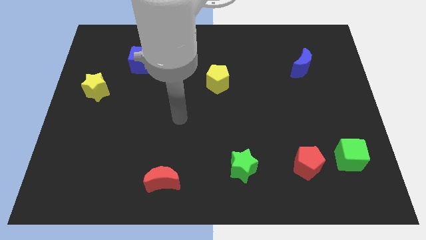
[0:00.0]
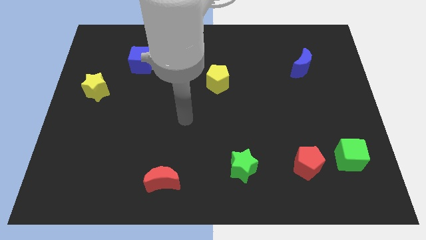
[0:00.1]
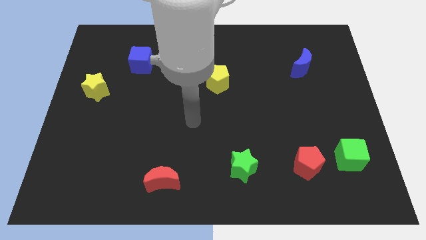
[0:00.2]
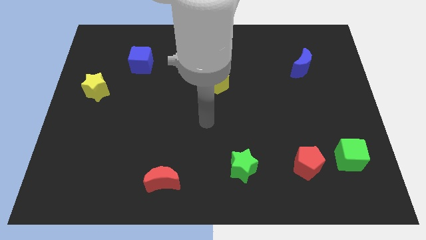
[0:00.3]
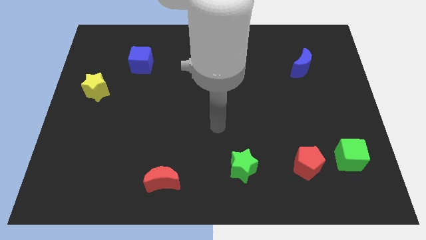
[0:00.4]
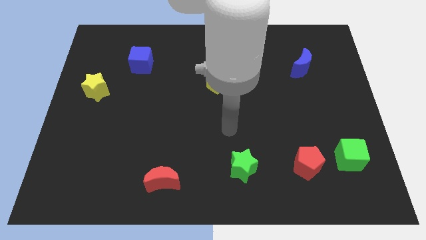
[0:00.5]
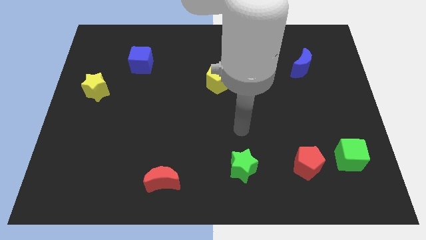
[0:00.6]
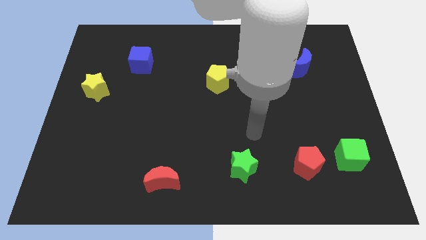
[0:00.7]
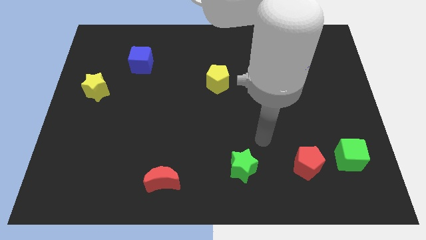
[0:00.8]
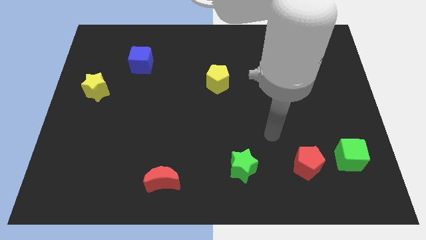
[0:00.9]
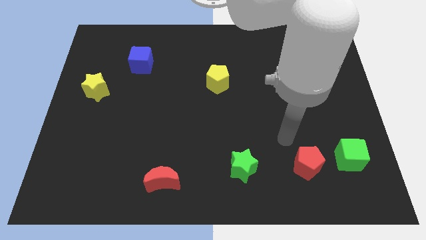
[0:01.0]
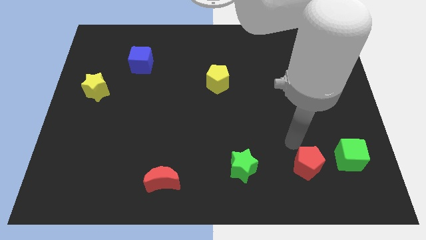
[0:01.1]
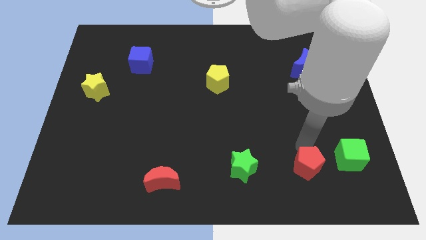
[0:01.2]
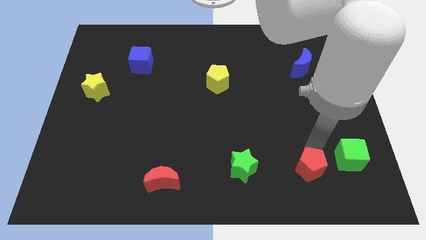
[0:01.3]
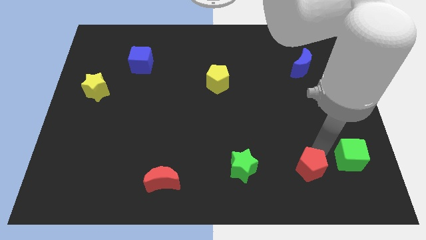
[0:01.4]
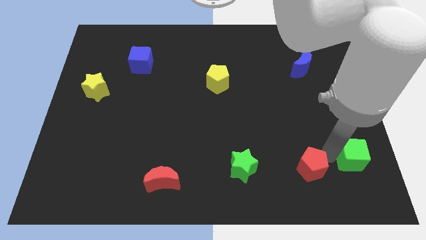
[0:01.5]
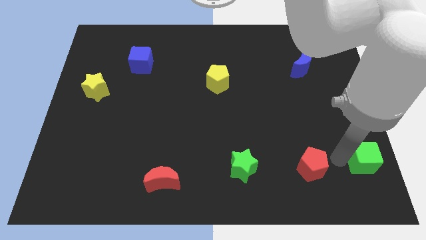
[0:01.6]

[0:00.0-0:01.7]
move the red pentagon away from the green cube

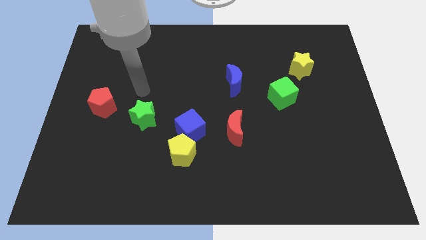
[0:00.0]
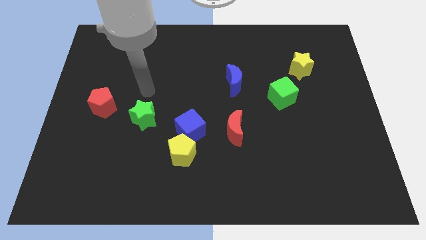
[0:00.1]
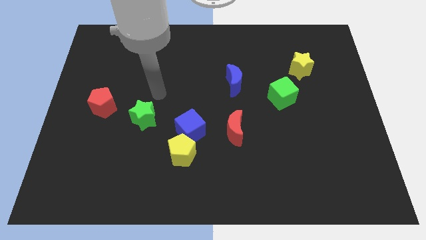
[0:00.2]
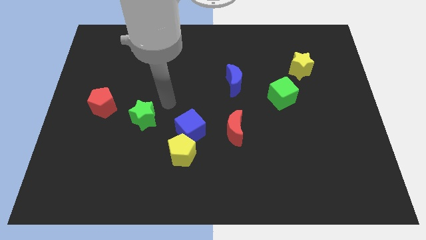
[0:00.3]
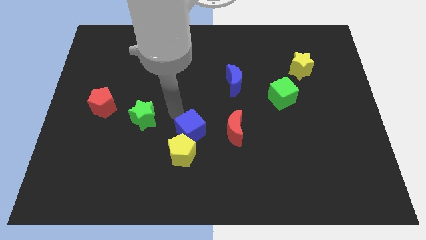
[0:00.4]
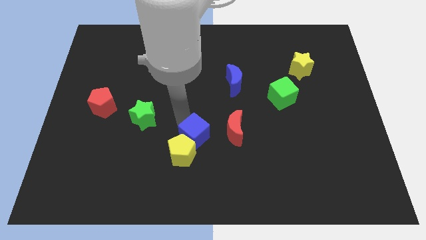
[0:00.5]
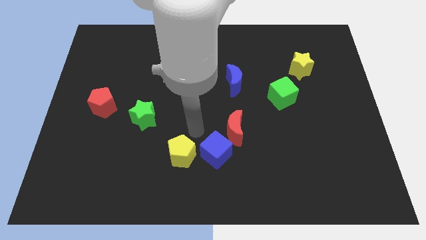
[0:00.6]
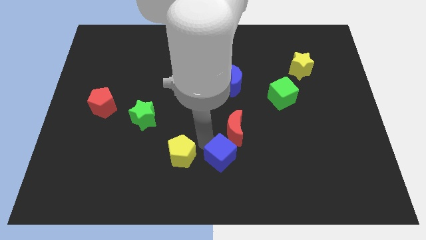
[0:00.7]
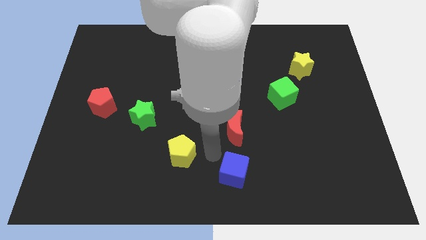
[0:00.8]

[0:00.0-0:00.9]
pull the yellow pentagon apart from the blue cube

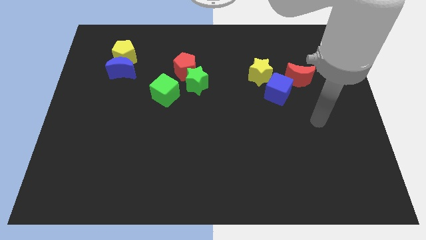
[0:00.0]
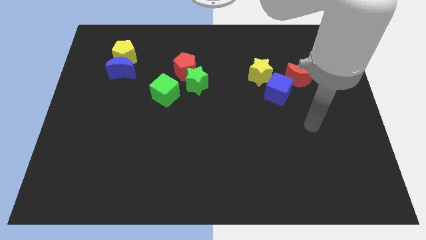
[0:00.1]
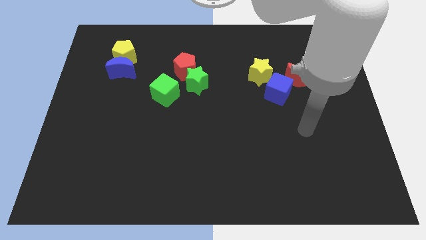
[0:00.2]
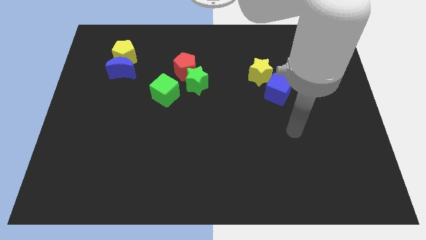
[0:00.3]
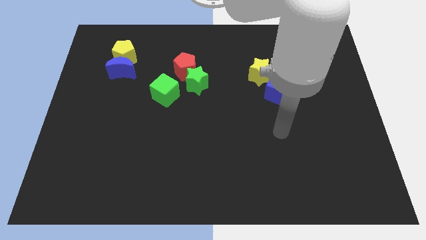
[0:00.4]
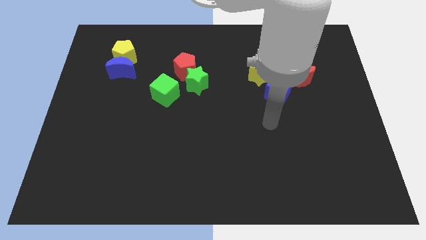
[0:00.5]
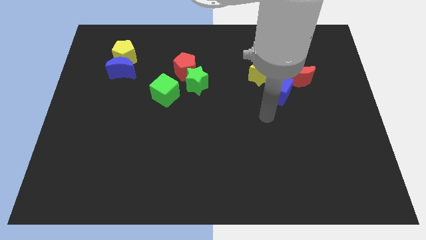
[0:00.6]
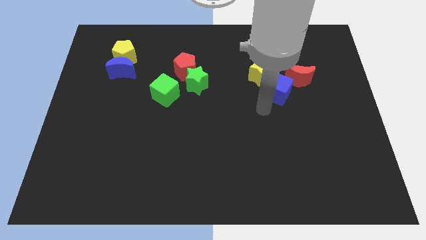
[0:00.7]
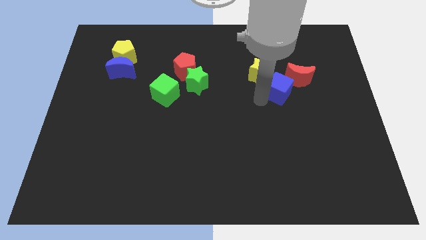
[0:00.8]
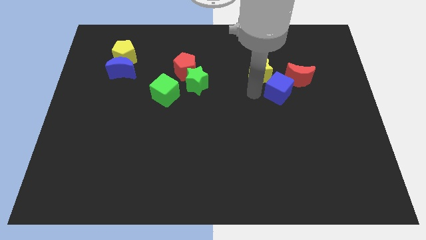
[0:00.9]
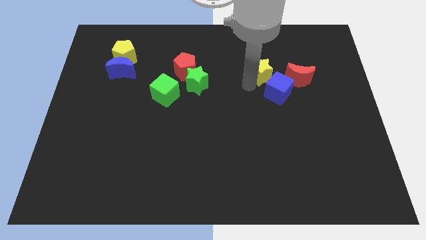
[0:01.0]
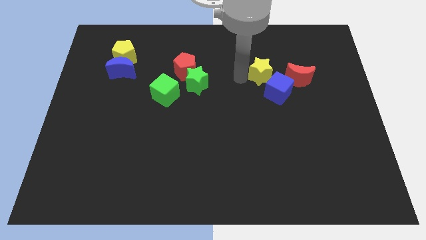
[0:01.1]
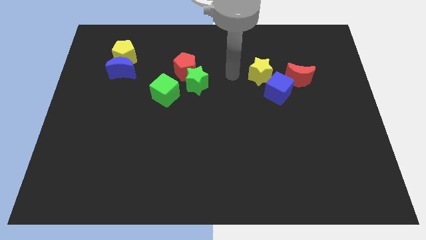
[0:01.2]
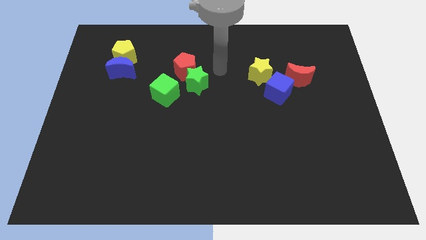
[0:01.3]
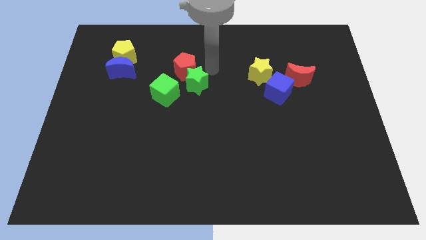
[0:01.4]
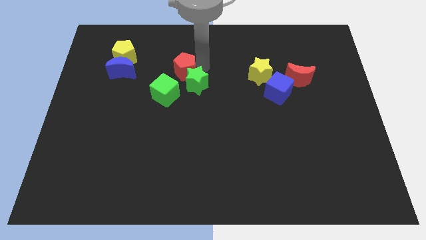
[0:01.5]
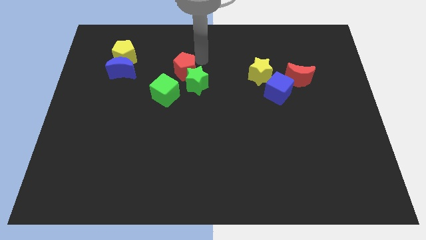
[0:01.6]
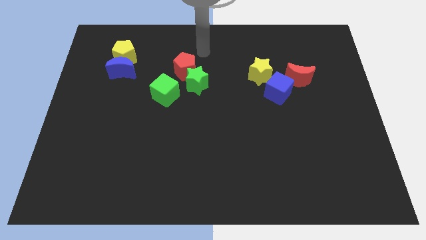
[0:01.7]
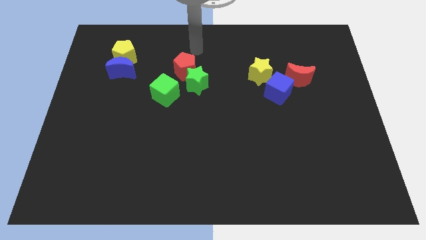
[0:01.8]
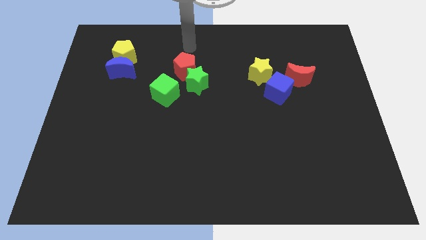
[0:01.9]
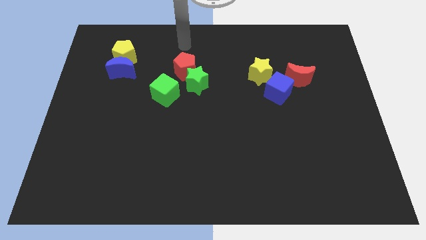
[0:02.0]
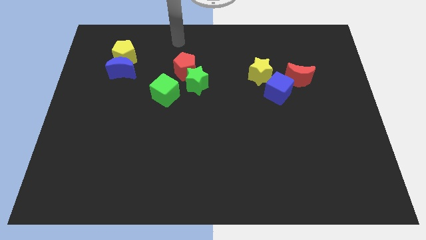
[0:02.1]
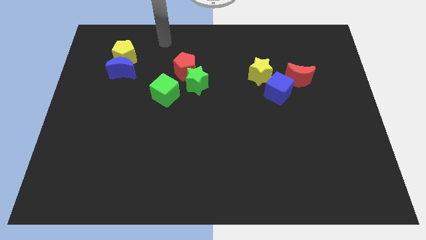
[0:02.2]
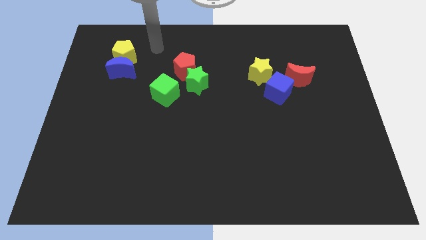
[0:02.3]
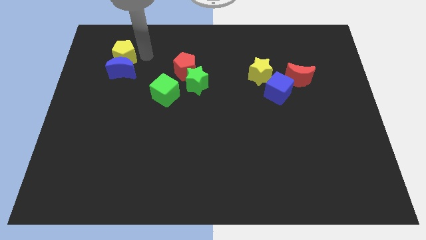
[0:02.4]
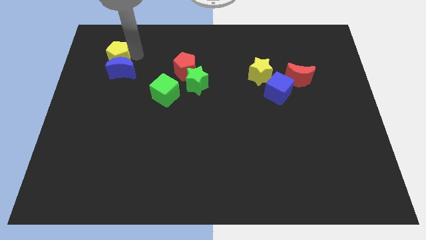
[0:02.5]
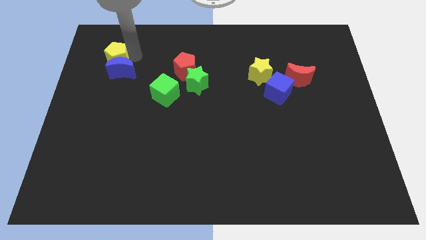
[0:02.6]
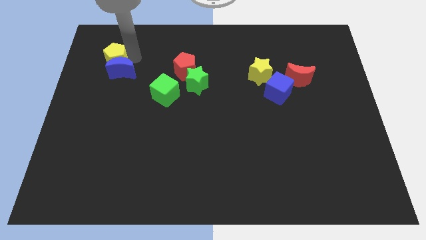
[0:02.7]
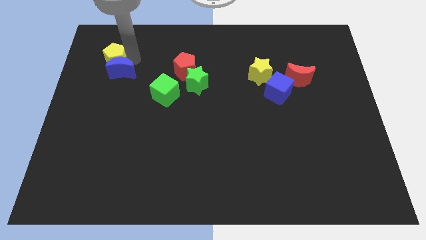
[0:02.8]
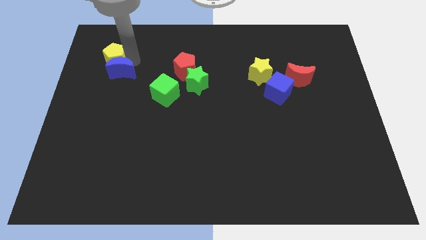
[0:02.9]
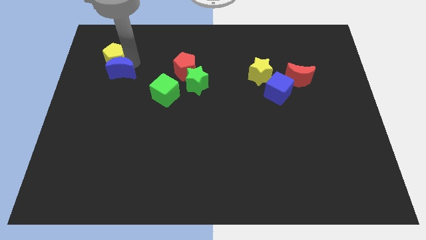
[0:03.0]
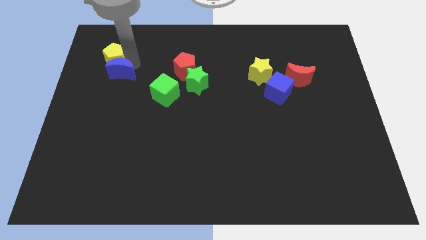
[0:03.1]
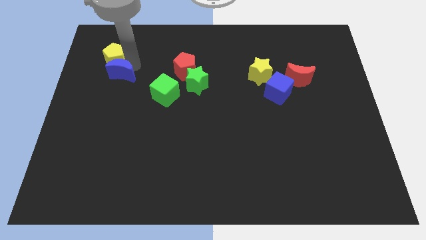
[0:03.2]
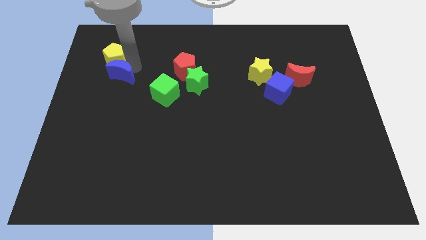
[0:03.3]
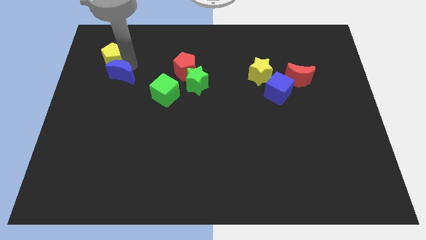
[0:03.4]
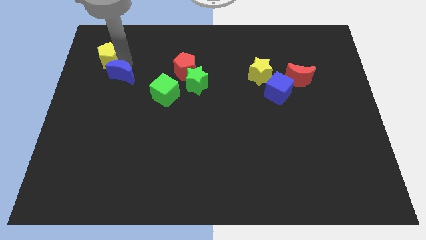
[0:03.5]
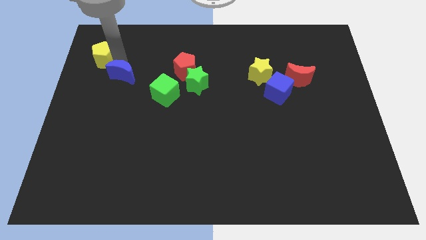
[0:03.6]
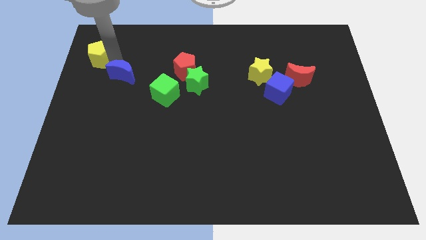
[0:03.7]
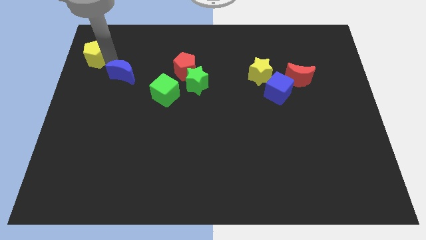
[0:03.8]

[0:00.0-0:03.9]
pull the blue moon apart from the yellow pentagon

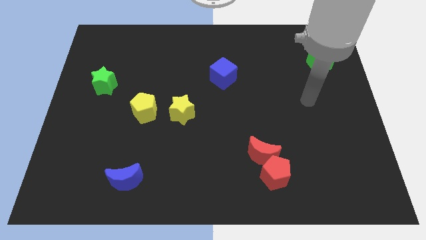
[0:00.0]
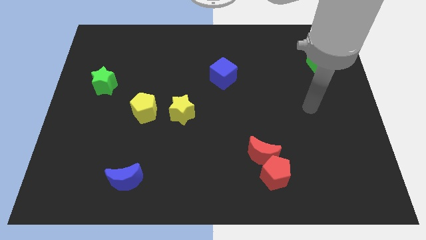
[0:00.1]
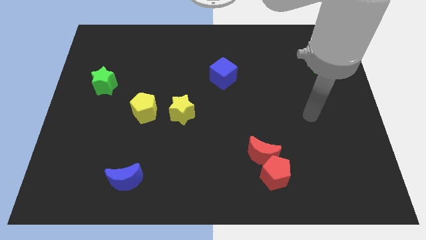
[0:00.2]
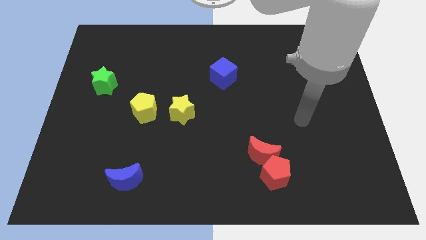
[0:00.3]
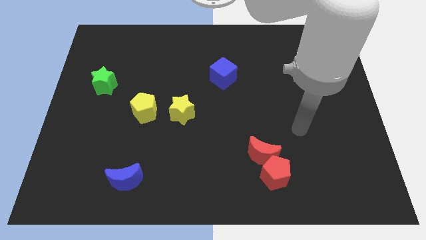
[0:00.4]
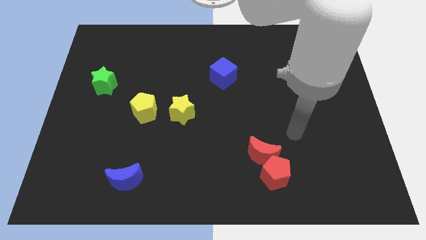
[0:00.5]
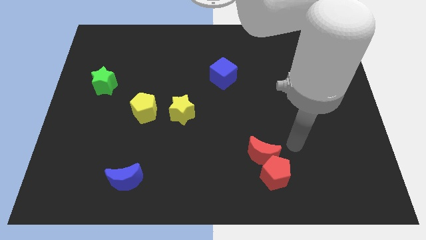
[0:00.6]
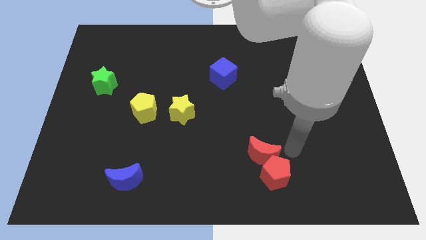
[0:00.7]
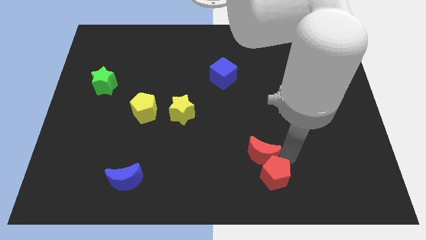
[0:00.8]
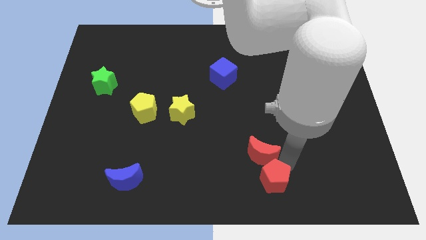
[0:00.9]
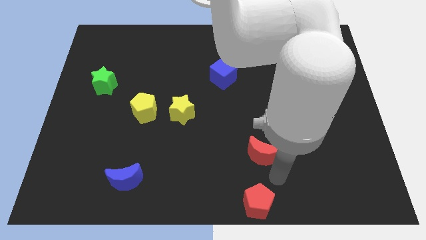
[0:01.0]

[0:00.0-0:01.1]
pull the red moon apart from the red pentagon

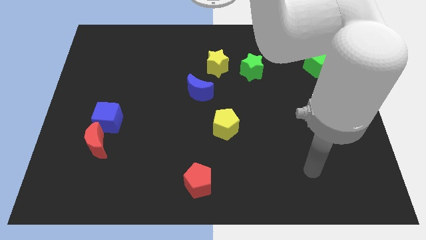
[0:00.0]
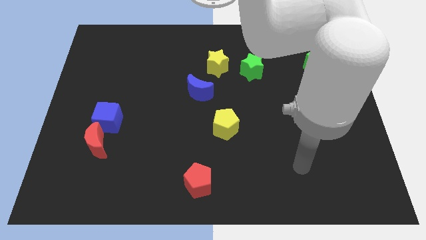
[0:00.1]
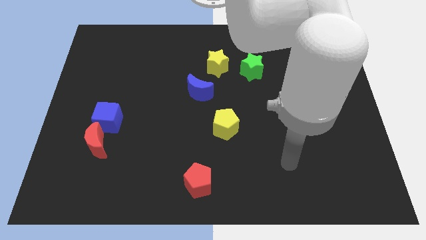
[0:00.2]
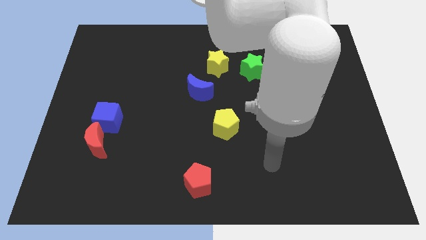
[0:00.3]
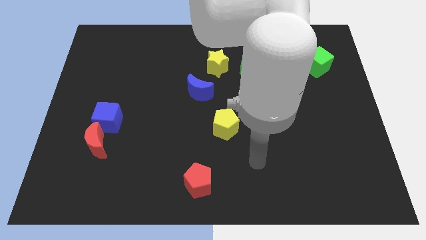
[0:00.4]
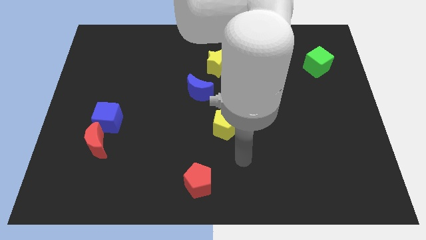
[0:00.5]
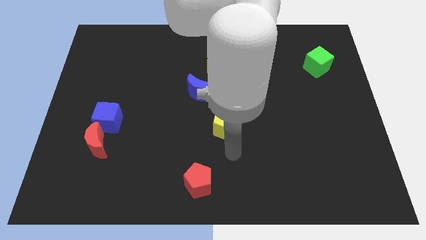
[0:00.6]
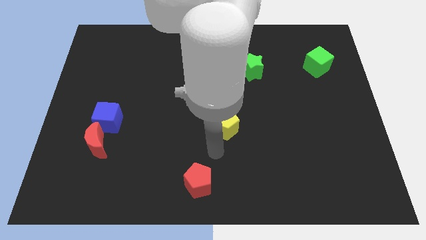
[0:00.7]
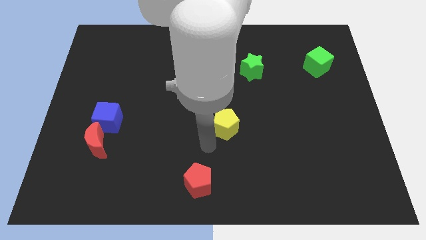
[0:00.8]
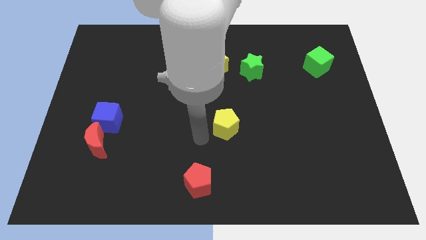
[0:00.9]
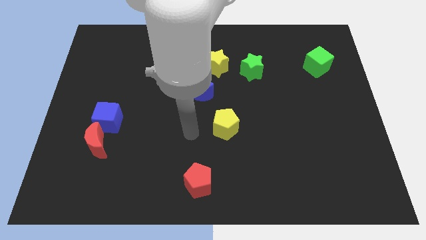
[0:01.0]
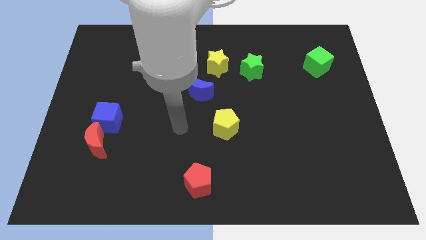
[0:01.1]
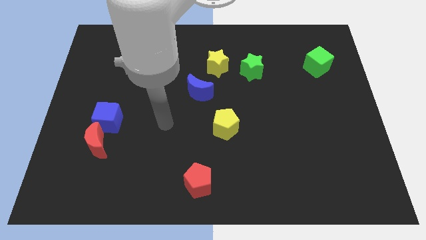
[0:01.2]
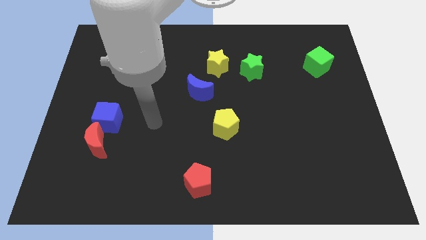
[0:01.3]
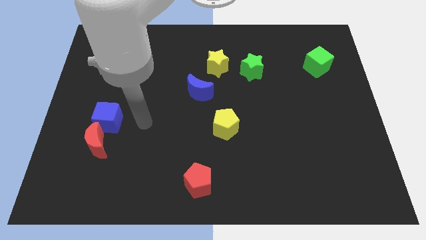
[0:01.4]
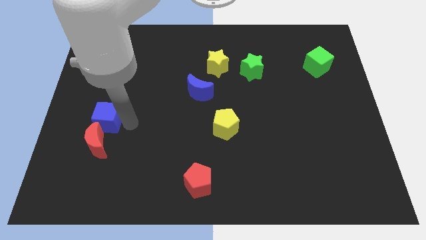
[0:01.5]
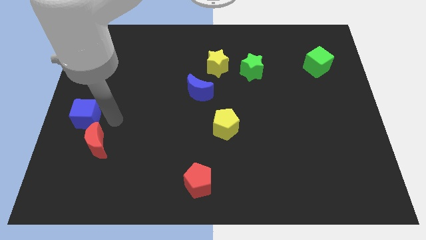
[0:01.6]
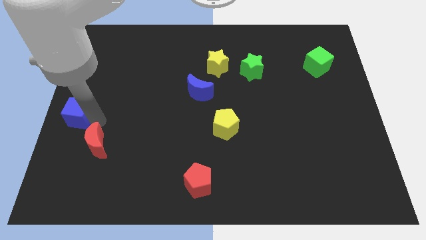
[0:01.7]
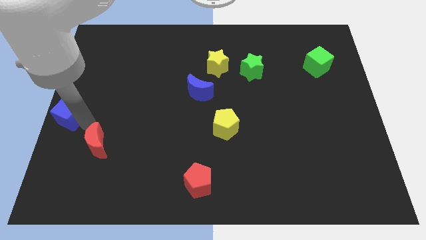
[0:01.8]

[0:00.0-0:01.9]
pull the red moon apart from the blue cube
